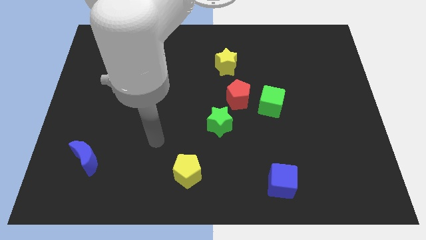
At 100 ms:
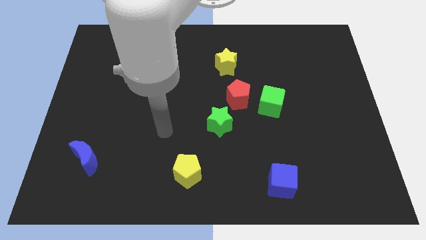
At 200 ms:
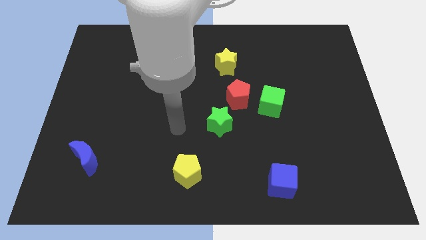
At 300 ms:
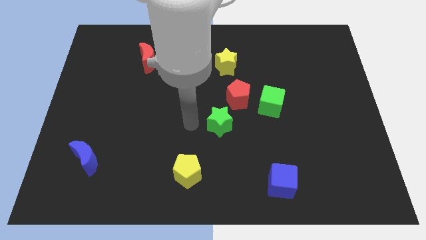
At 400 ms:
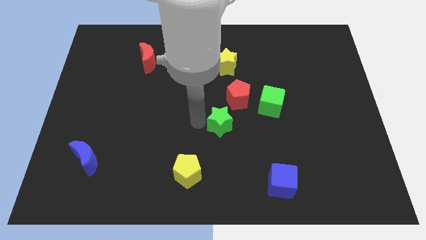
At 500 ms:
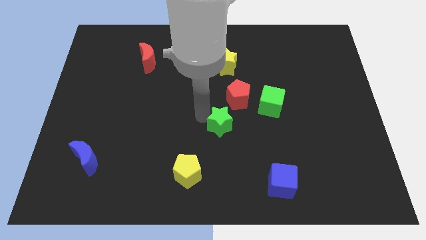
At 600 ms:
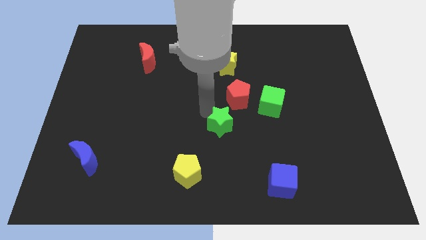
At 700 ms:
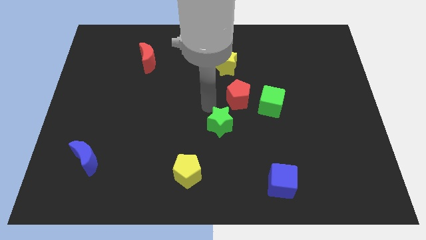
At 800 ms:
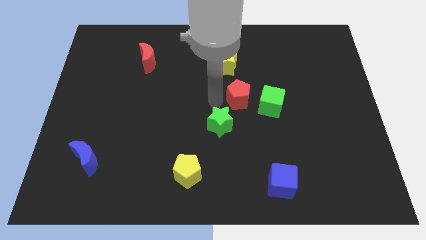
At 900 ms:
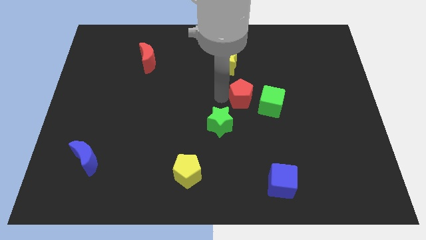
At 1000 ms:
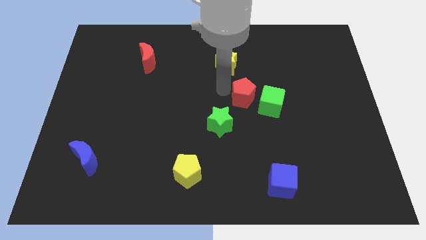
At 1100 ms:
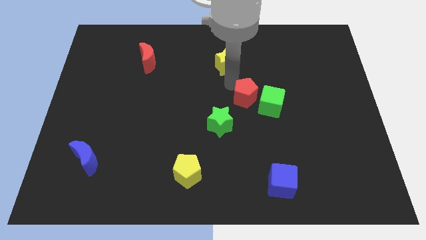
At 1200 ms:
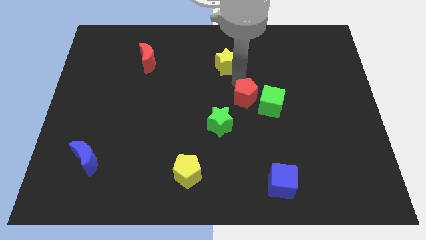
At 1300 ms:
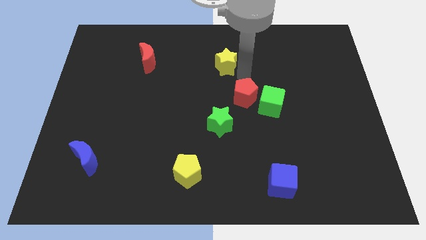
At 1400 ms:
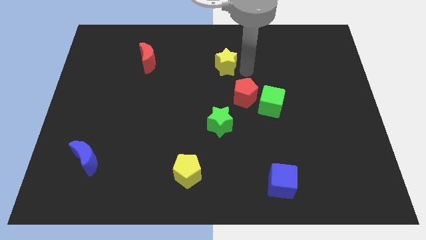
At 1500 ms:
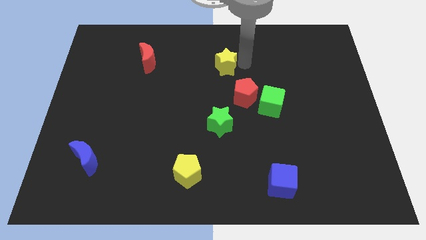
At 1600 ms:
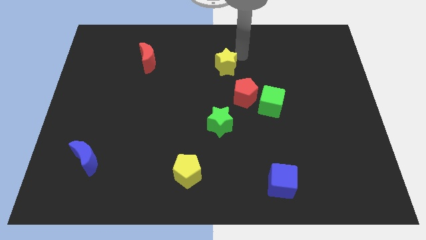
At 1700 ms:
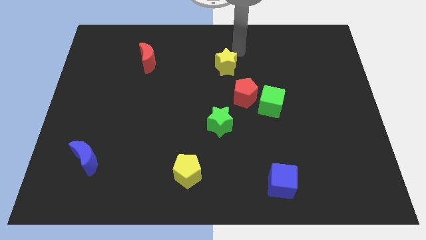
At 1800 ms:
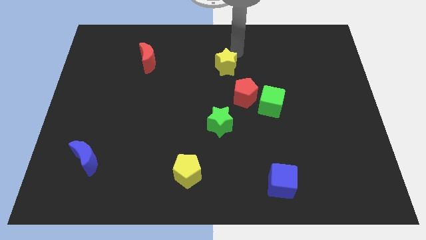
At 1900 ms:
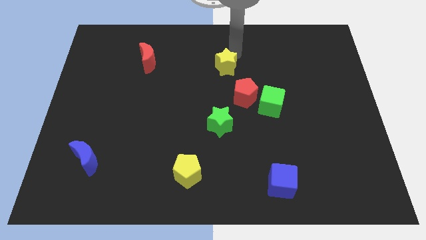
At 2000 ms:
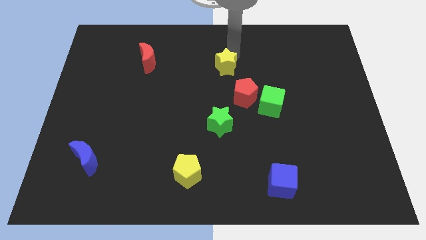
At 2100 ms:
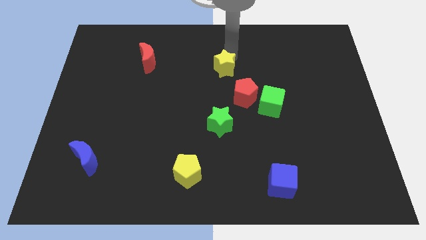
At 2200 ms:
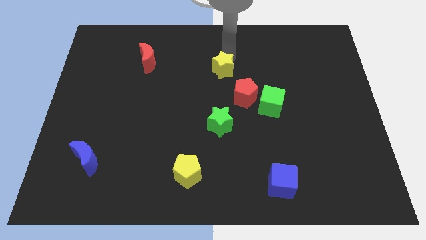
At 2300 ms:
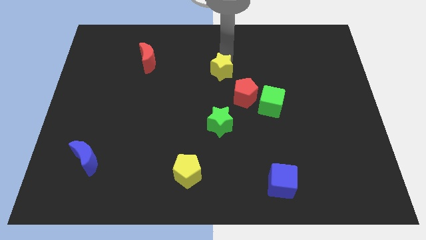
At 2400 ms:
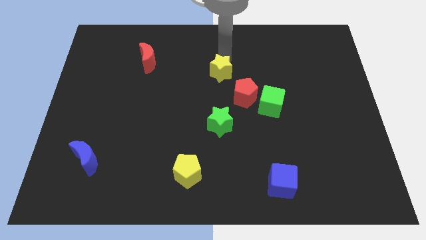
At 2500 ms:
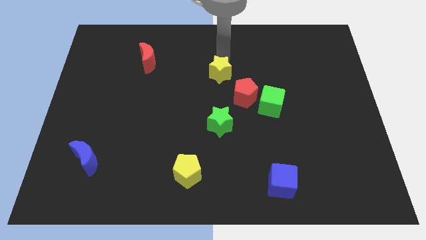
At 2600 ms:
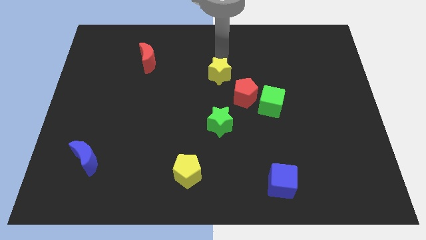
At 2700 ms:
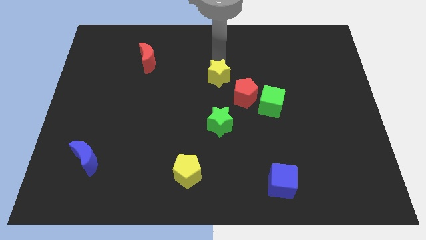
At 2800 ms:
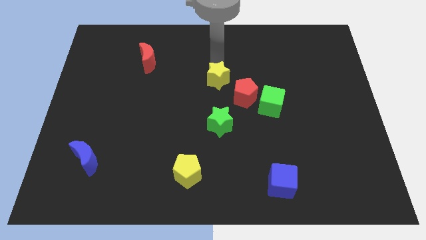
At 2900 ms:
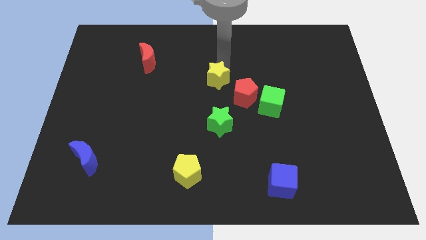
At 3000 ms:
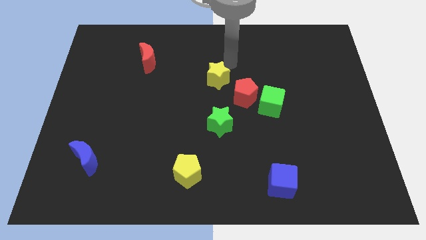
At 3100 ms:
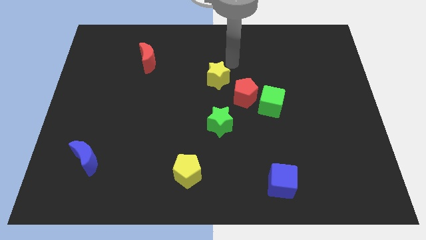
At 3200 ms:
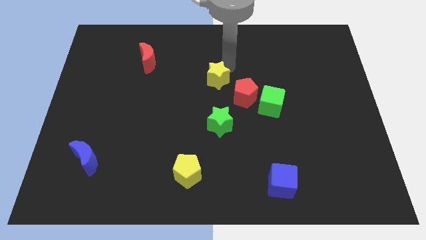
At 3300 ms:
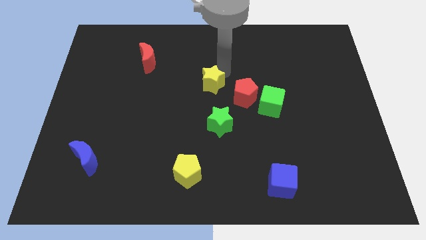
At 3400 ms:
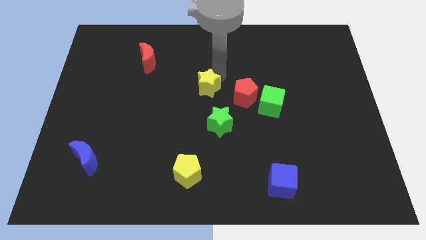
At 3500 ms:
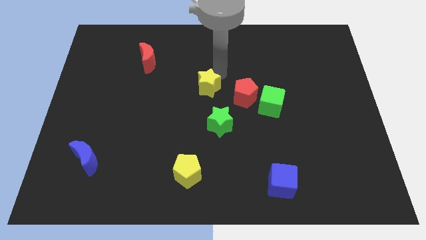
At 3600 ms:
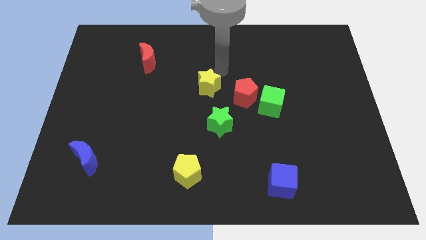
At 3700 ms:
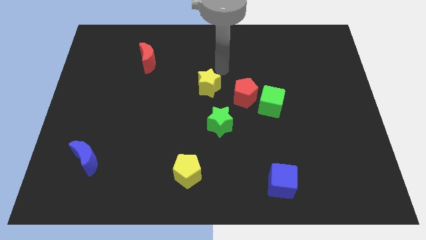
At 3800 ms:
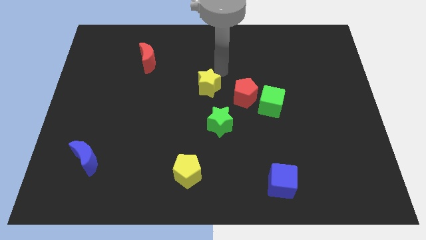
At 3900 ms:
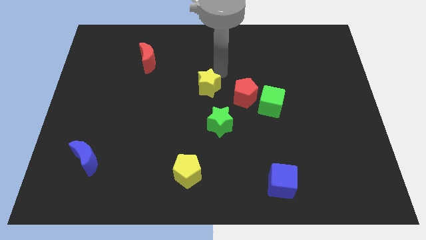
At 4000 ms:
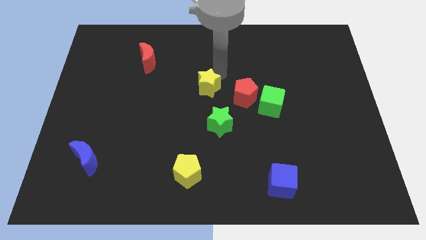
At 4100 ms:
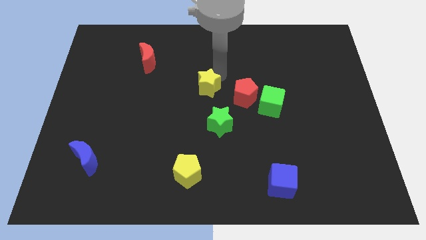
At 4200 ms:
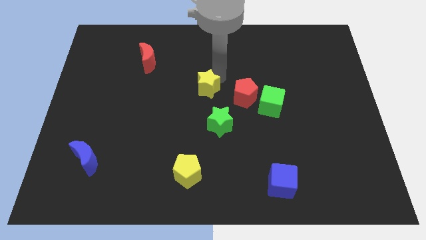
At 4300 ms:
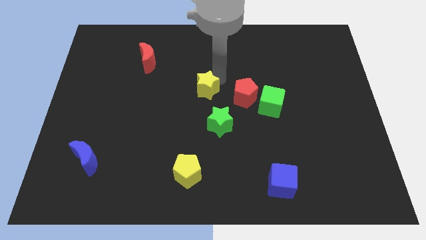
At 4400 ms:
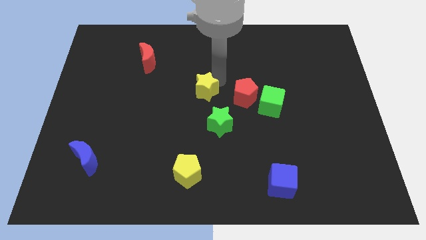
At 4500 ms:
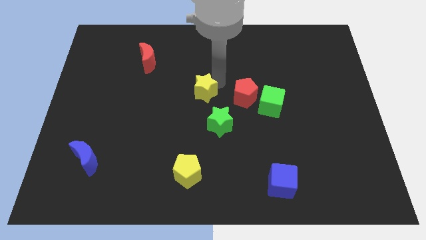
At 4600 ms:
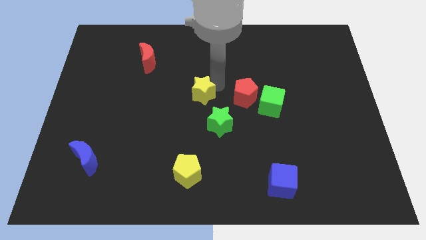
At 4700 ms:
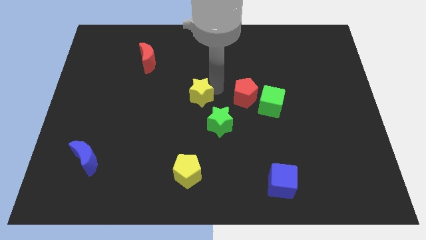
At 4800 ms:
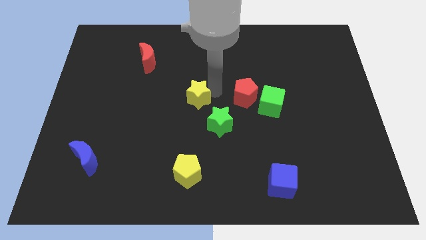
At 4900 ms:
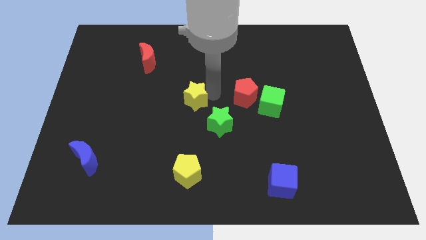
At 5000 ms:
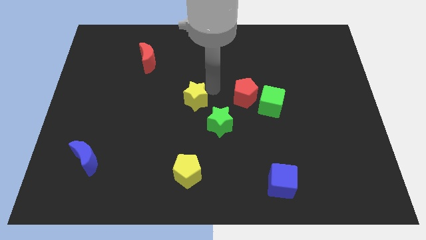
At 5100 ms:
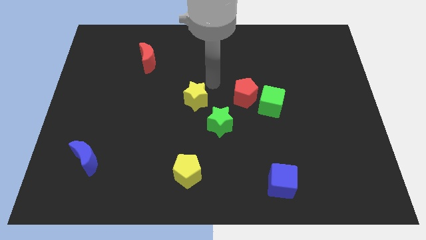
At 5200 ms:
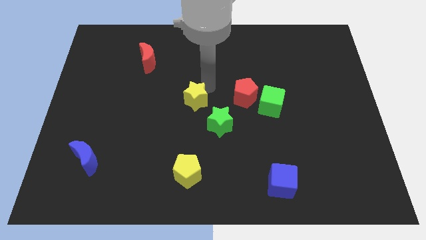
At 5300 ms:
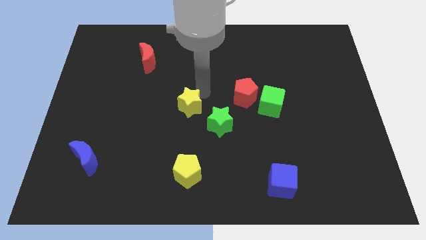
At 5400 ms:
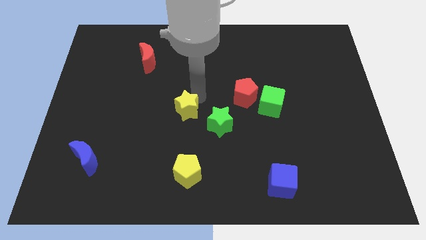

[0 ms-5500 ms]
put the yellow star just left of the green star

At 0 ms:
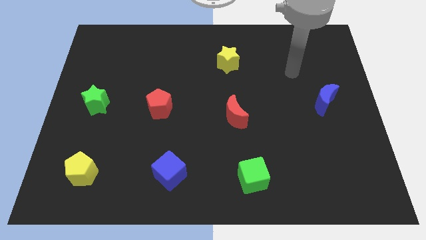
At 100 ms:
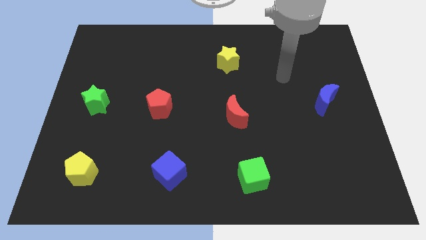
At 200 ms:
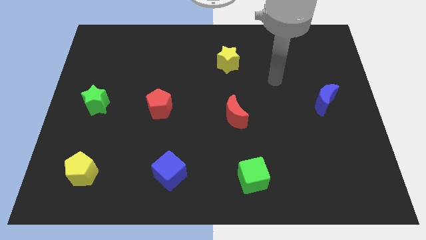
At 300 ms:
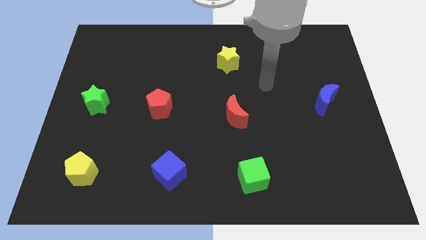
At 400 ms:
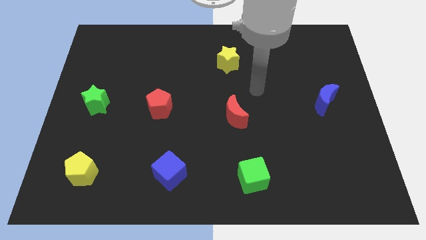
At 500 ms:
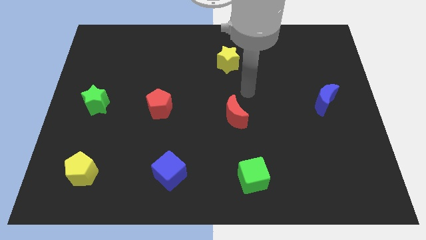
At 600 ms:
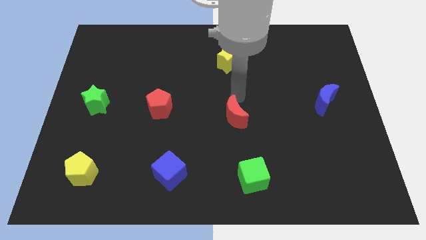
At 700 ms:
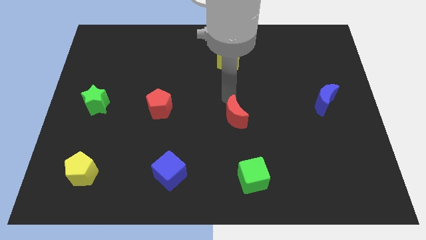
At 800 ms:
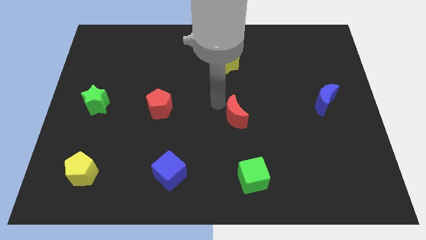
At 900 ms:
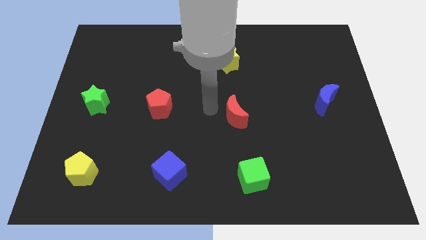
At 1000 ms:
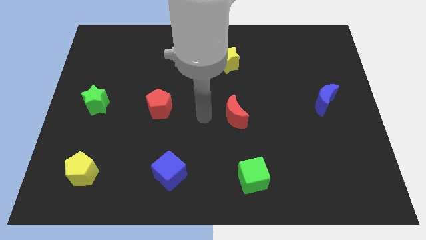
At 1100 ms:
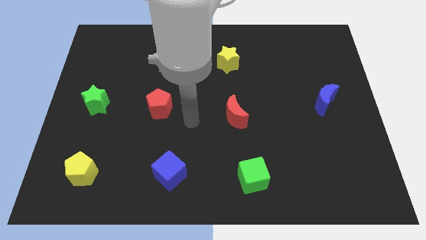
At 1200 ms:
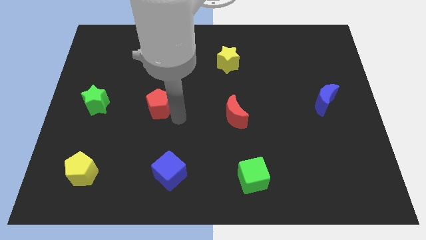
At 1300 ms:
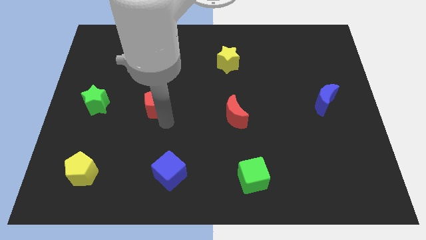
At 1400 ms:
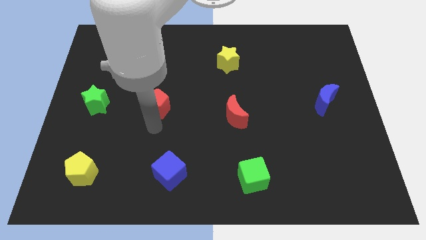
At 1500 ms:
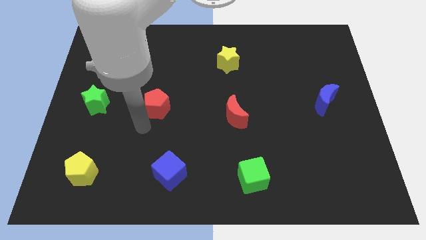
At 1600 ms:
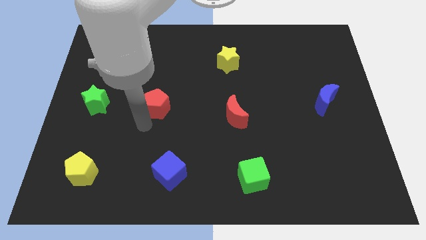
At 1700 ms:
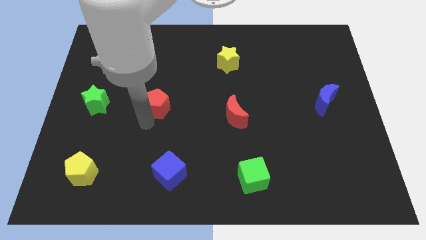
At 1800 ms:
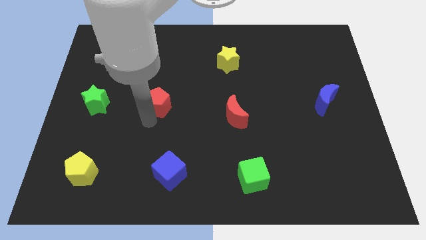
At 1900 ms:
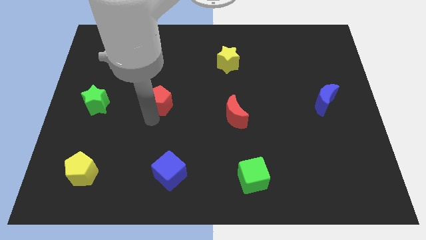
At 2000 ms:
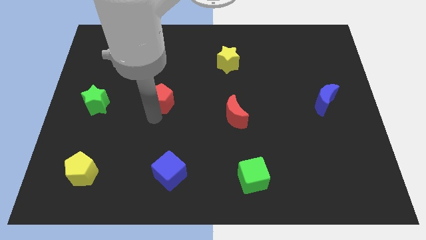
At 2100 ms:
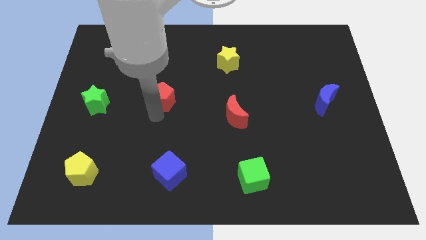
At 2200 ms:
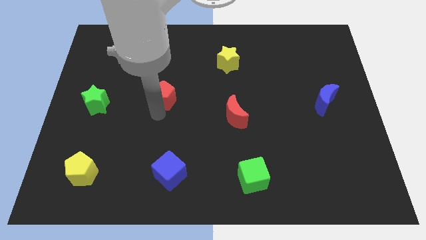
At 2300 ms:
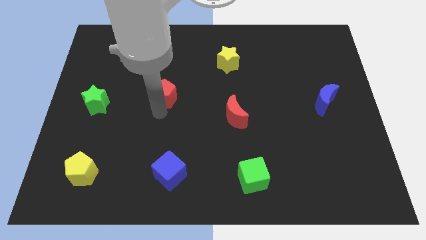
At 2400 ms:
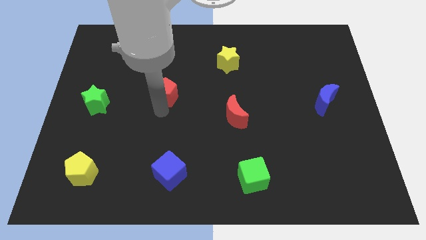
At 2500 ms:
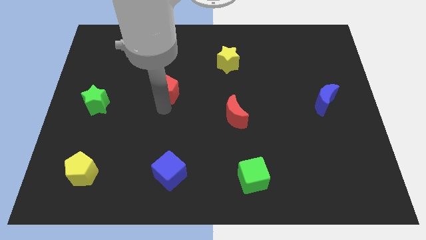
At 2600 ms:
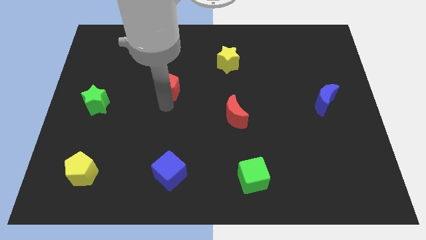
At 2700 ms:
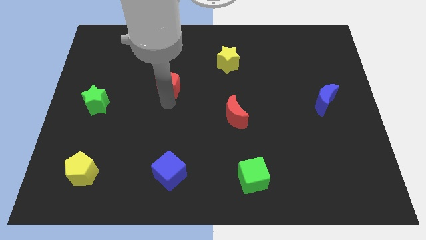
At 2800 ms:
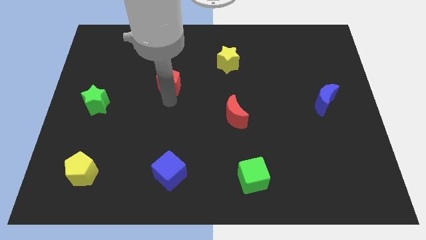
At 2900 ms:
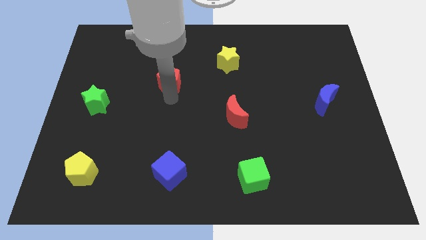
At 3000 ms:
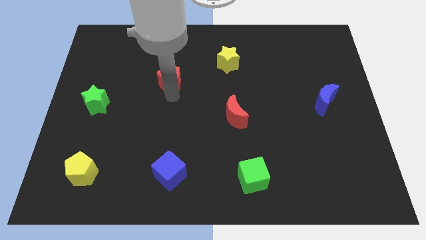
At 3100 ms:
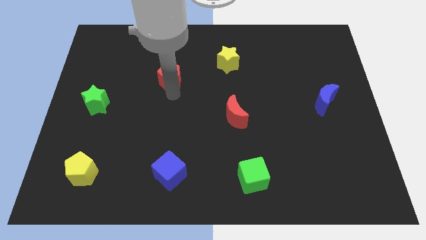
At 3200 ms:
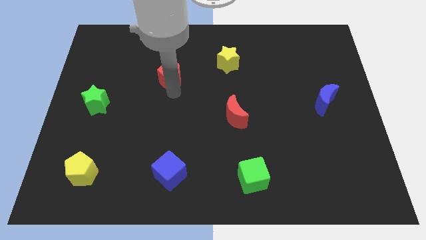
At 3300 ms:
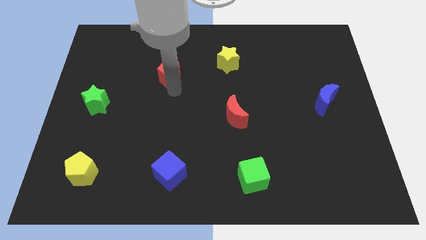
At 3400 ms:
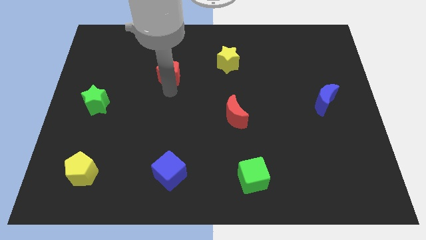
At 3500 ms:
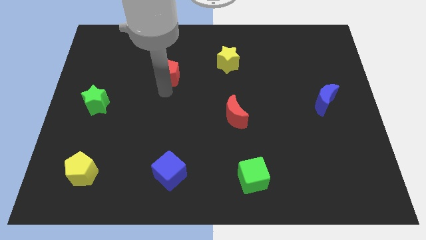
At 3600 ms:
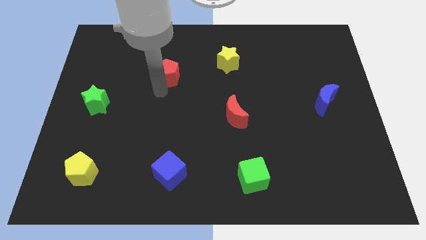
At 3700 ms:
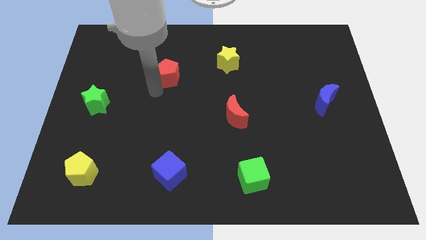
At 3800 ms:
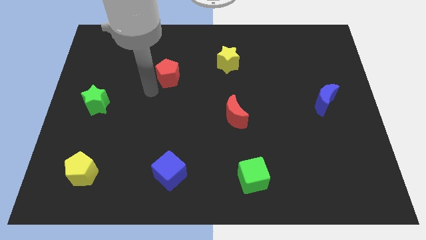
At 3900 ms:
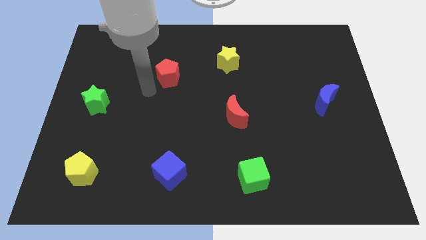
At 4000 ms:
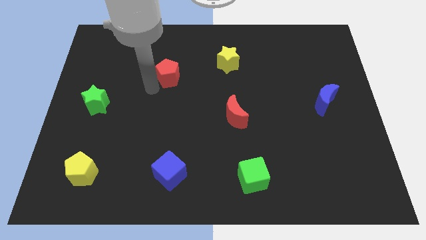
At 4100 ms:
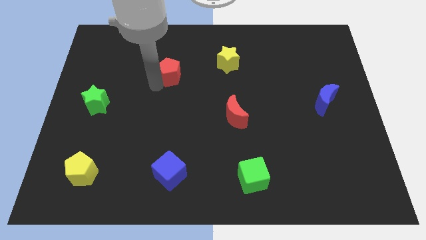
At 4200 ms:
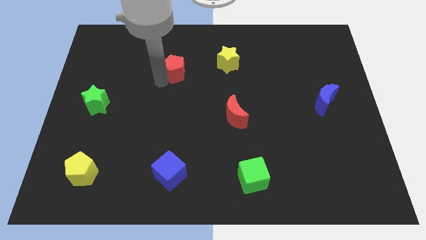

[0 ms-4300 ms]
push the red pentagon just left of the yellow star
